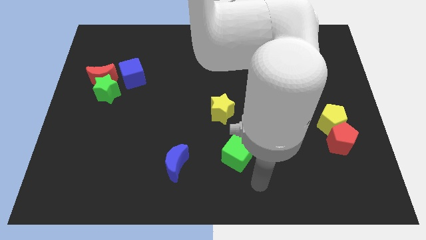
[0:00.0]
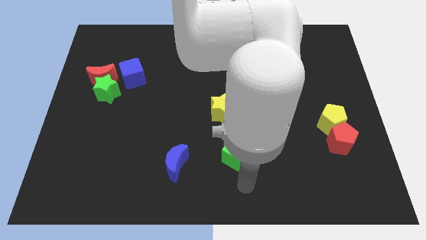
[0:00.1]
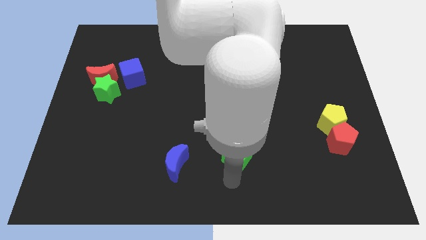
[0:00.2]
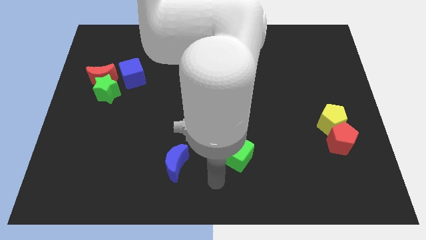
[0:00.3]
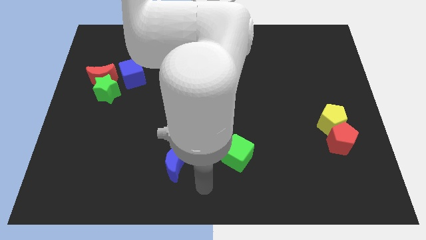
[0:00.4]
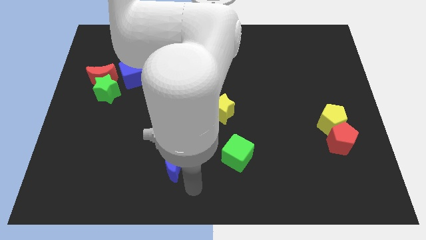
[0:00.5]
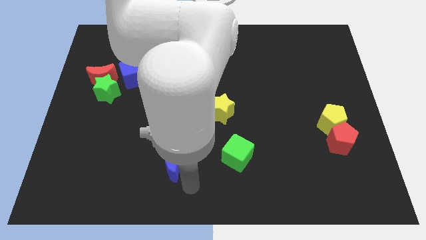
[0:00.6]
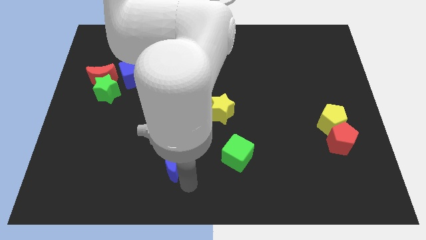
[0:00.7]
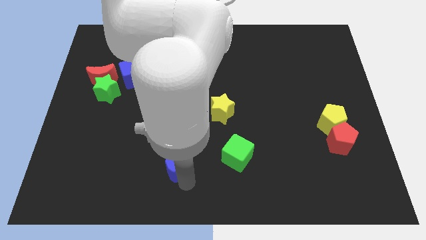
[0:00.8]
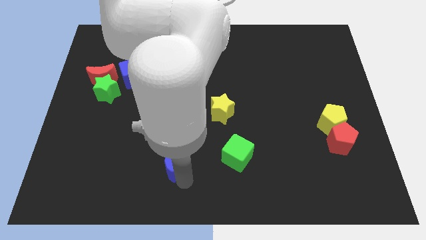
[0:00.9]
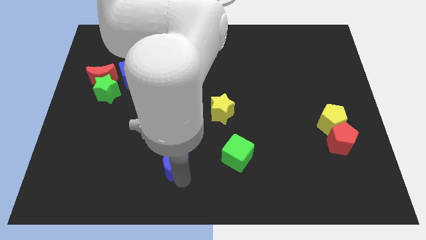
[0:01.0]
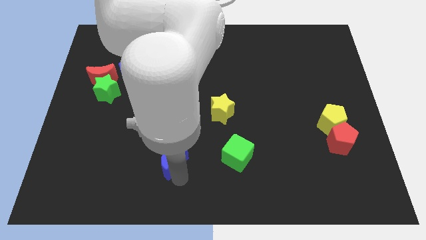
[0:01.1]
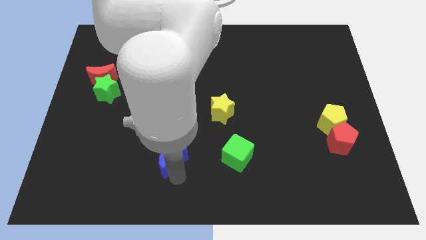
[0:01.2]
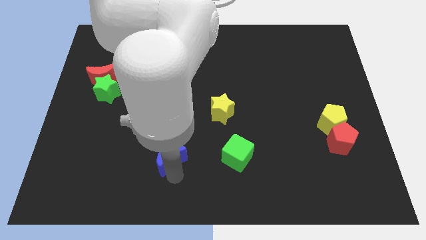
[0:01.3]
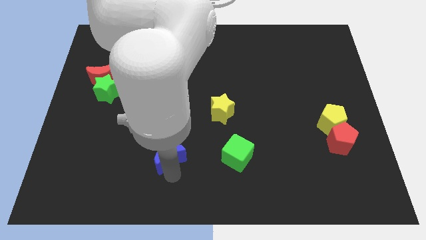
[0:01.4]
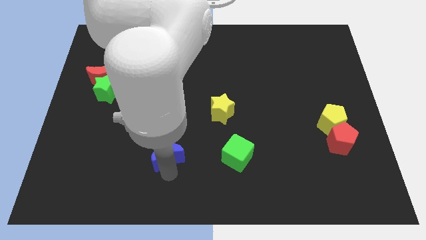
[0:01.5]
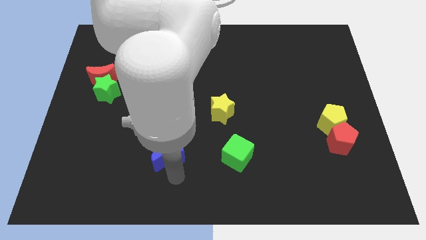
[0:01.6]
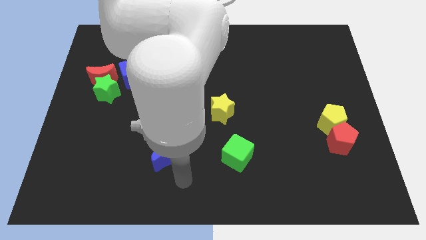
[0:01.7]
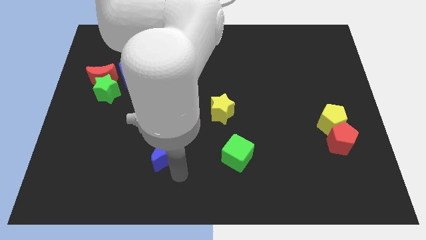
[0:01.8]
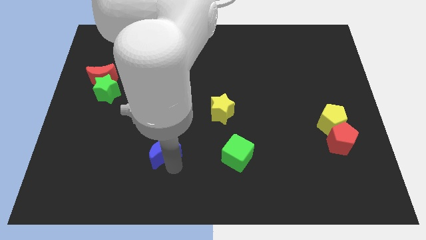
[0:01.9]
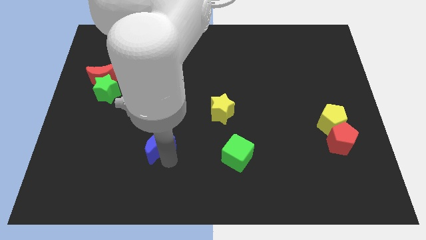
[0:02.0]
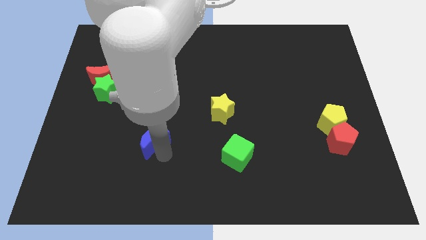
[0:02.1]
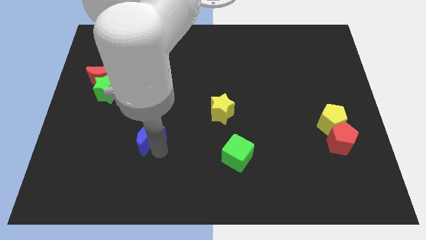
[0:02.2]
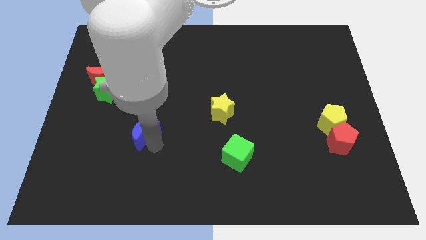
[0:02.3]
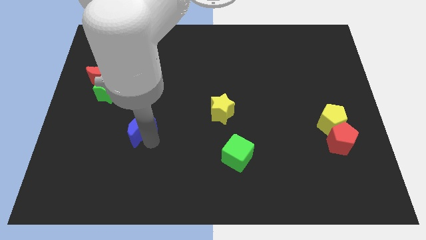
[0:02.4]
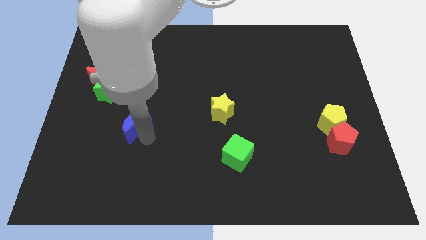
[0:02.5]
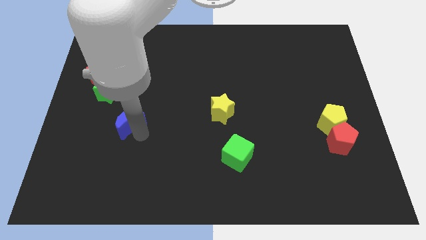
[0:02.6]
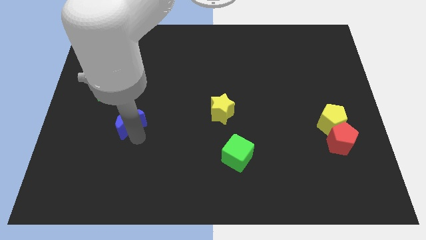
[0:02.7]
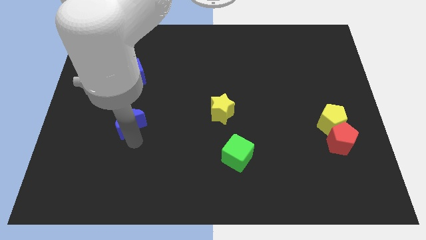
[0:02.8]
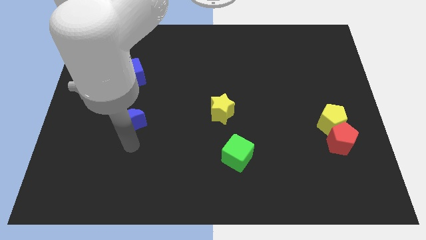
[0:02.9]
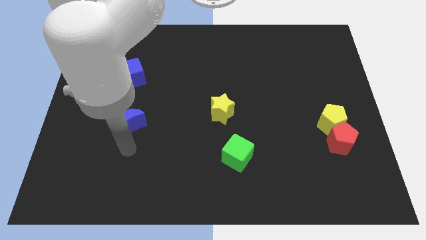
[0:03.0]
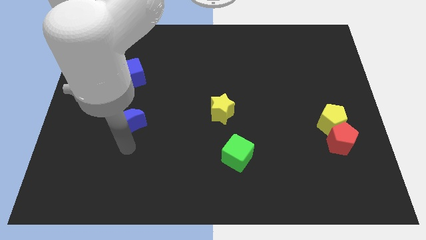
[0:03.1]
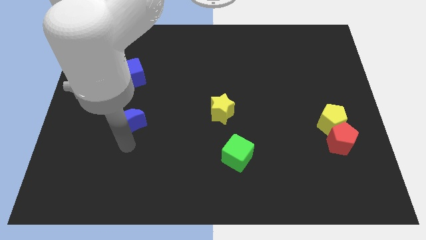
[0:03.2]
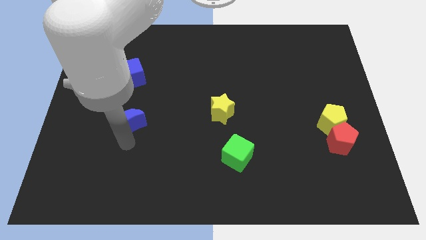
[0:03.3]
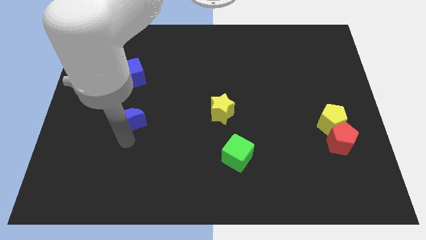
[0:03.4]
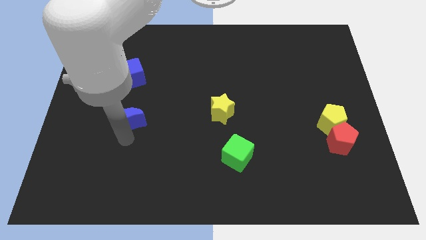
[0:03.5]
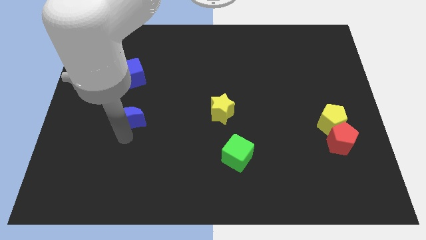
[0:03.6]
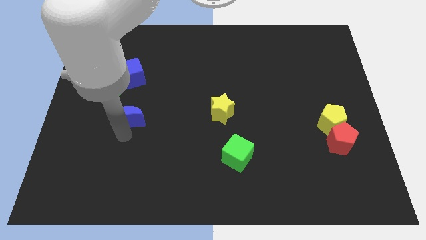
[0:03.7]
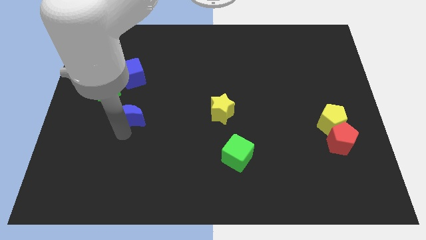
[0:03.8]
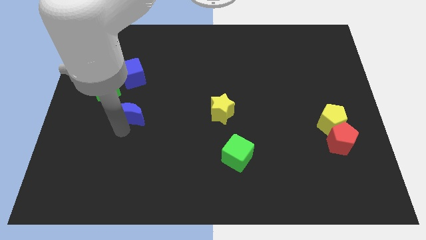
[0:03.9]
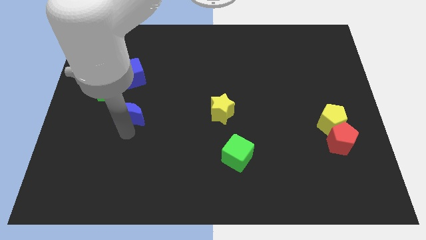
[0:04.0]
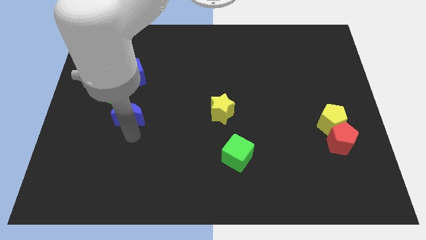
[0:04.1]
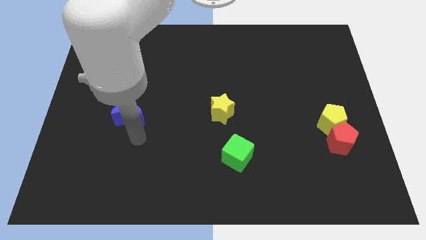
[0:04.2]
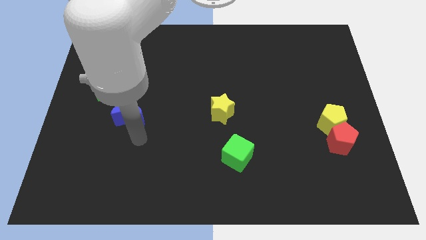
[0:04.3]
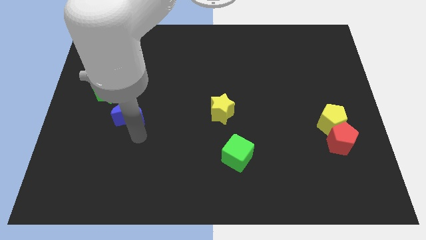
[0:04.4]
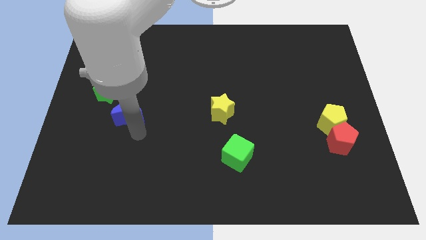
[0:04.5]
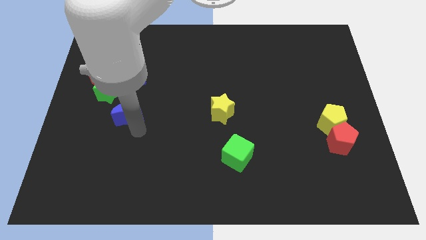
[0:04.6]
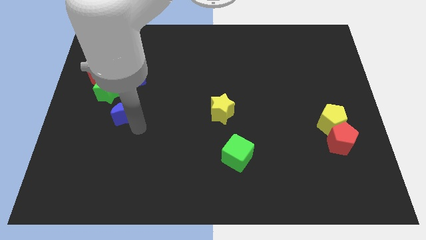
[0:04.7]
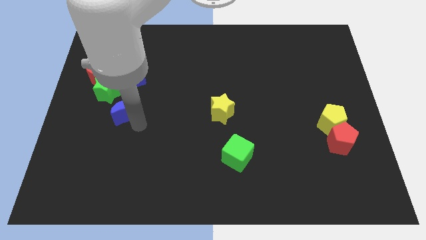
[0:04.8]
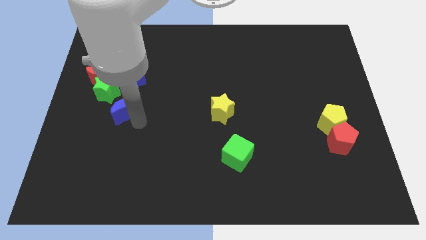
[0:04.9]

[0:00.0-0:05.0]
move the blue moon to the bottom right side of the red moon

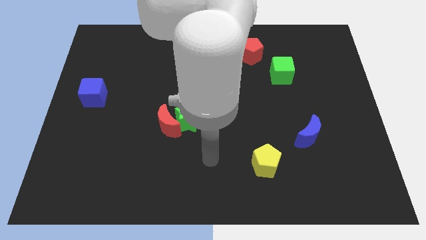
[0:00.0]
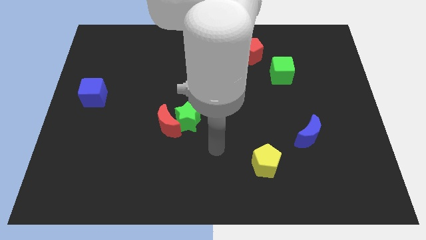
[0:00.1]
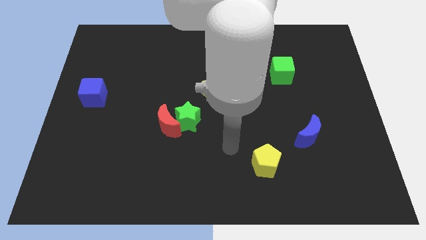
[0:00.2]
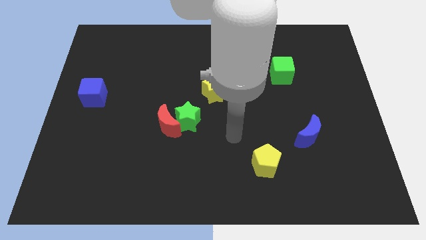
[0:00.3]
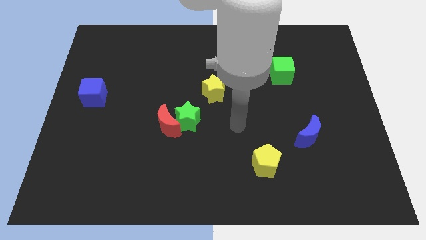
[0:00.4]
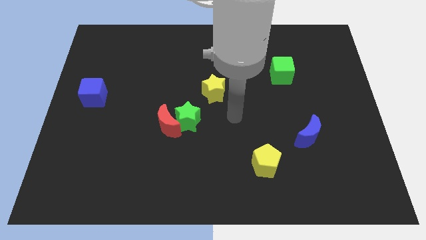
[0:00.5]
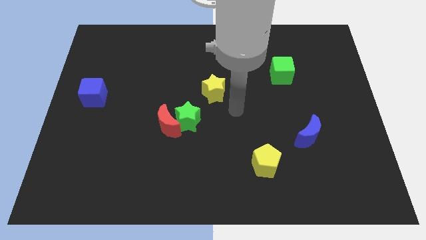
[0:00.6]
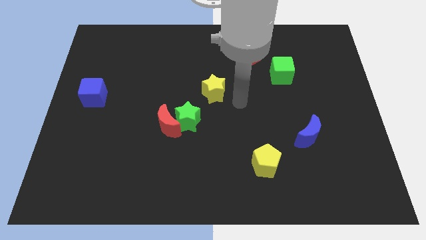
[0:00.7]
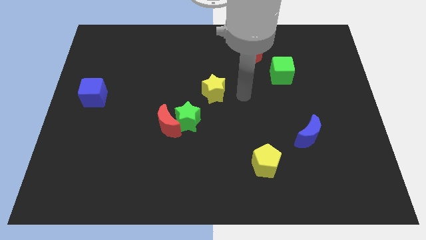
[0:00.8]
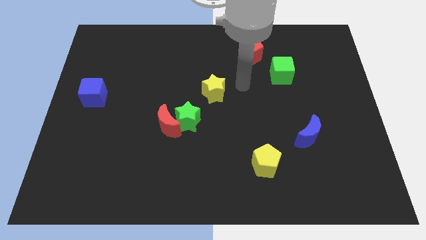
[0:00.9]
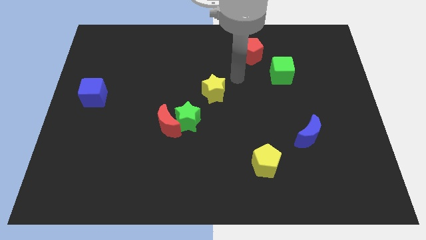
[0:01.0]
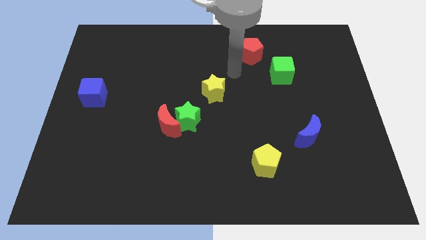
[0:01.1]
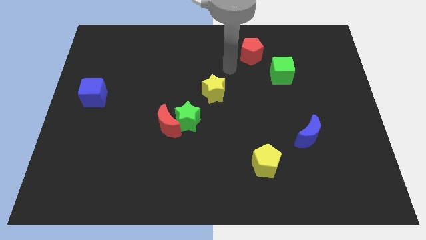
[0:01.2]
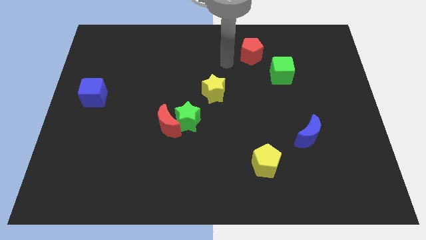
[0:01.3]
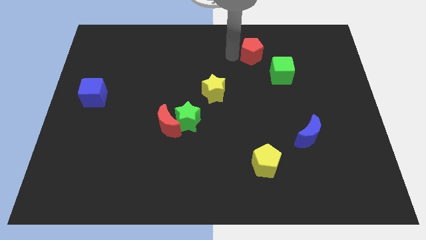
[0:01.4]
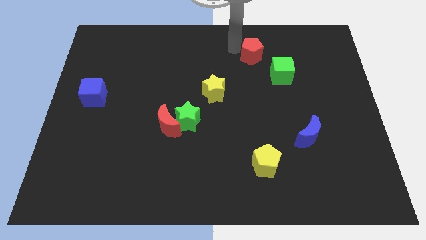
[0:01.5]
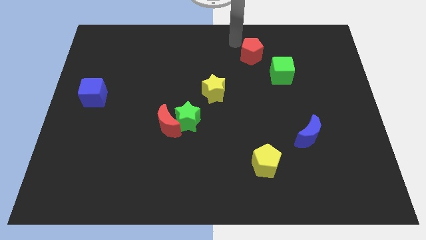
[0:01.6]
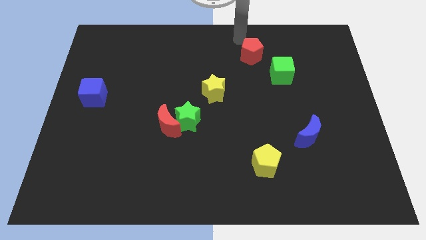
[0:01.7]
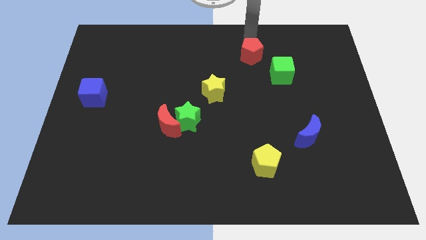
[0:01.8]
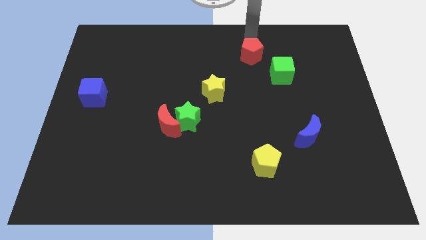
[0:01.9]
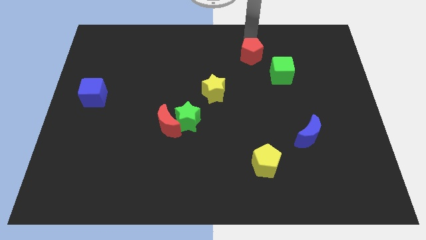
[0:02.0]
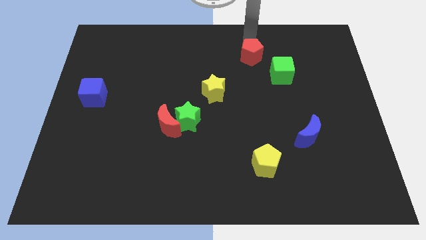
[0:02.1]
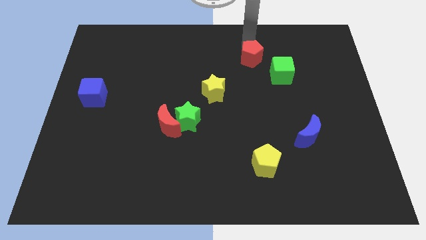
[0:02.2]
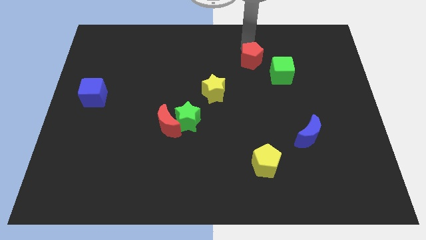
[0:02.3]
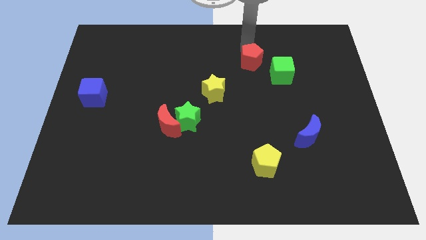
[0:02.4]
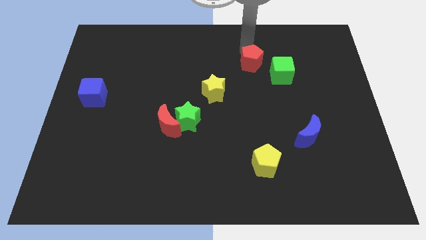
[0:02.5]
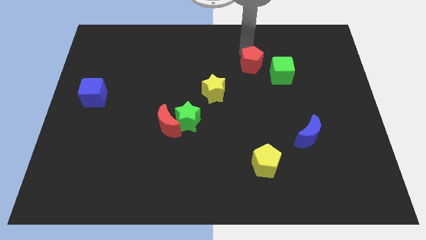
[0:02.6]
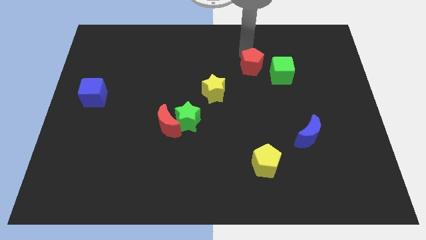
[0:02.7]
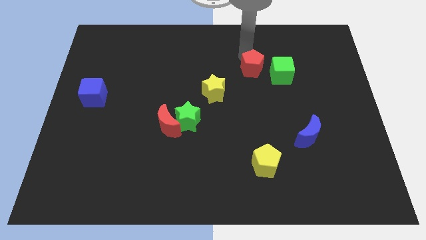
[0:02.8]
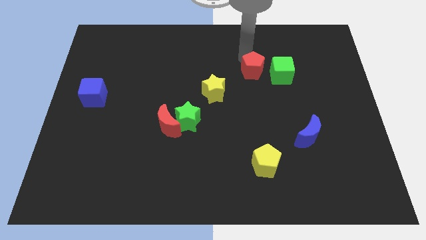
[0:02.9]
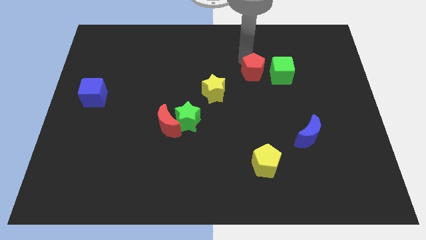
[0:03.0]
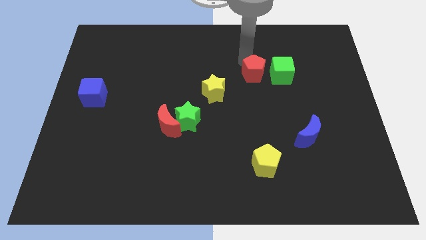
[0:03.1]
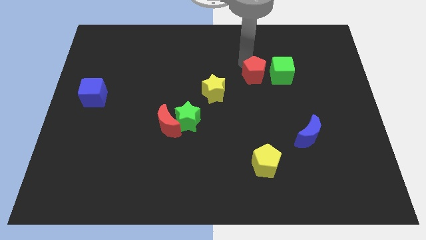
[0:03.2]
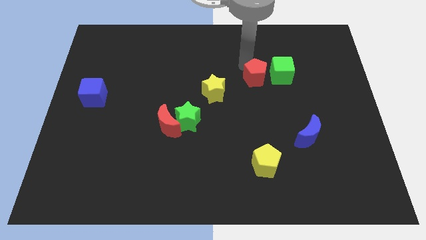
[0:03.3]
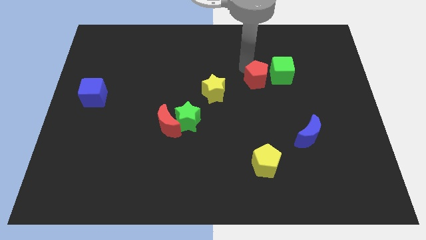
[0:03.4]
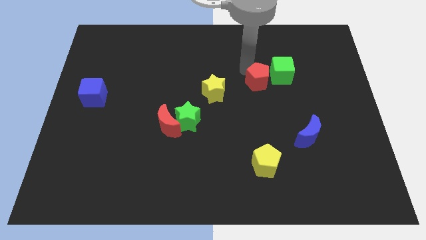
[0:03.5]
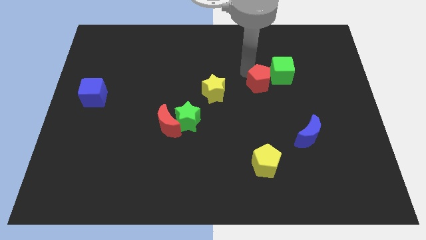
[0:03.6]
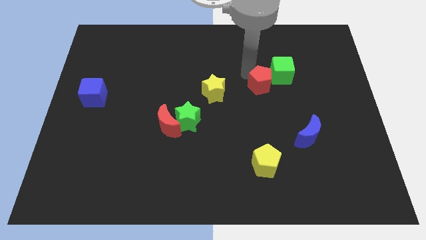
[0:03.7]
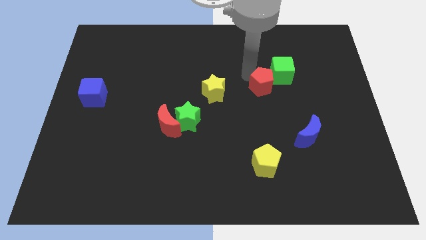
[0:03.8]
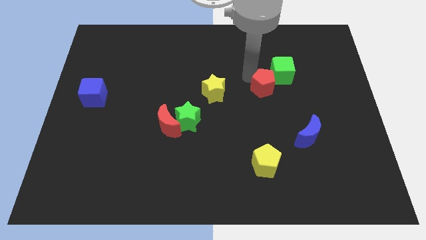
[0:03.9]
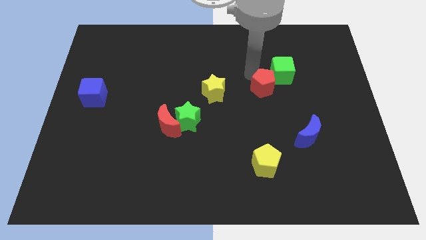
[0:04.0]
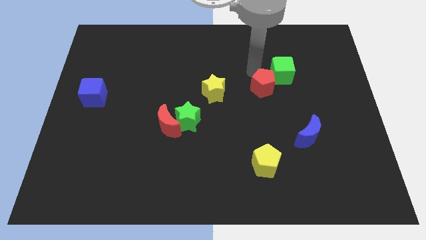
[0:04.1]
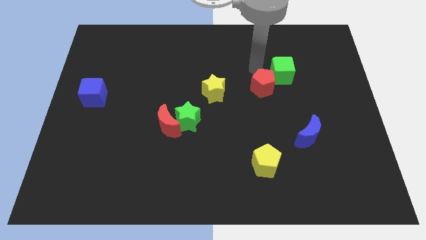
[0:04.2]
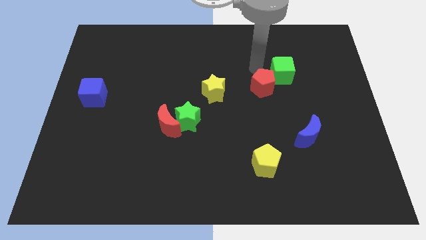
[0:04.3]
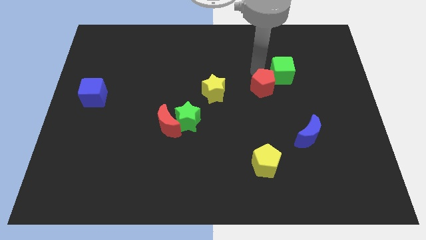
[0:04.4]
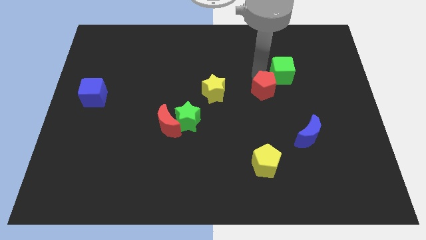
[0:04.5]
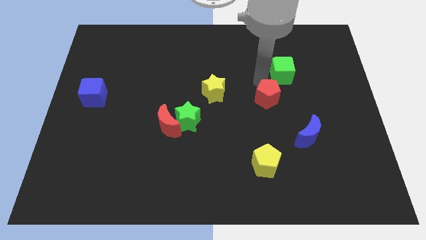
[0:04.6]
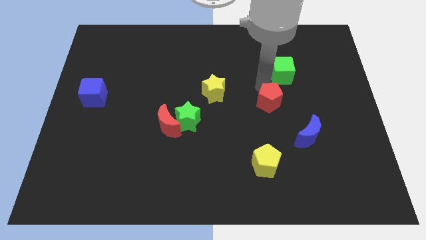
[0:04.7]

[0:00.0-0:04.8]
push the red pentagon diagonally up and to the left of the blue moon
